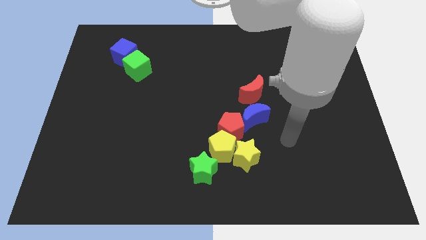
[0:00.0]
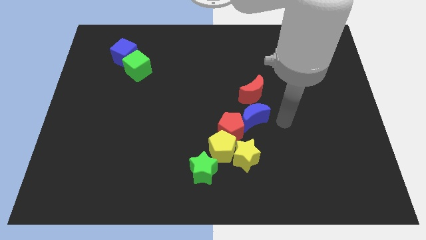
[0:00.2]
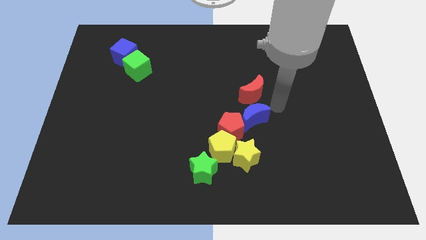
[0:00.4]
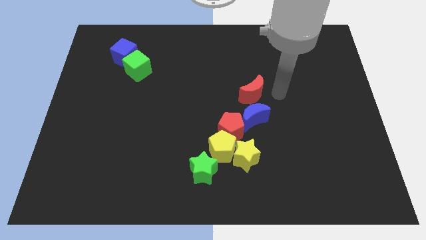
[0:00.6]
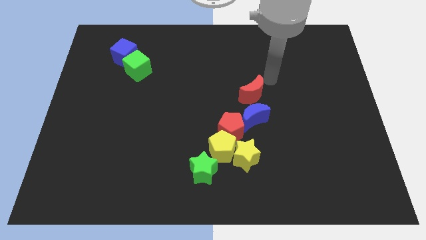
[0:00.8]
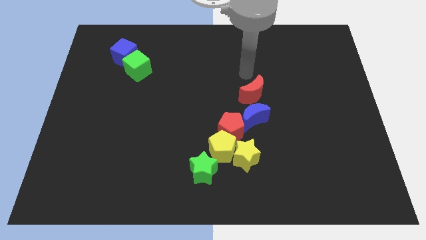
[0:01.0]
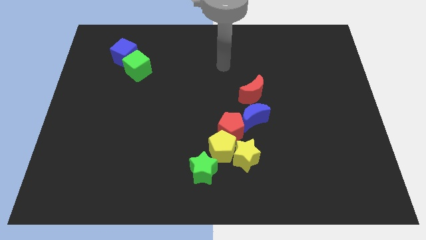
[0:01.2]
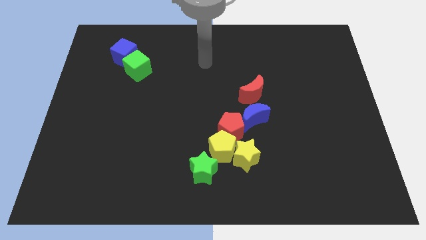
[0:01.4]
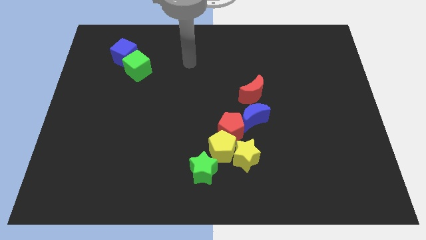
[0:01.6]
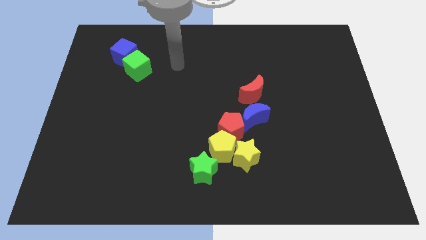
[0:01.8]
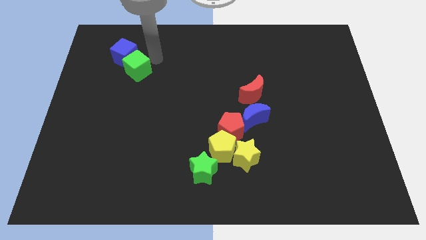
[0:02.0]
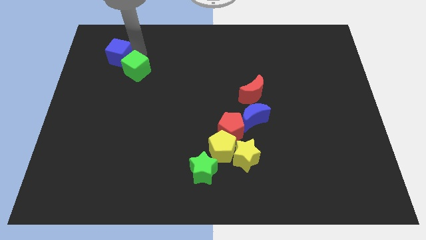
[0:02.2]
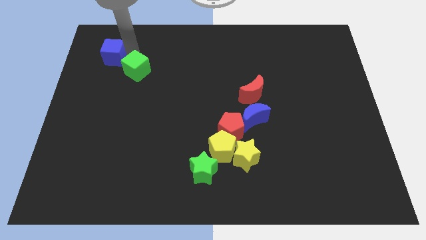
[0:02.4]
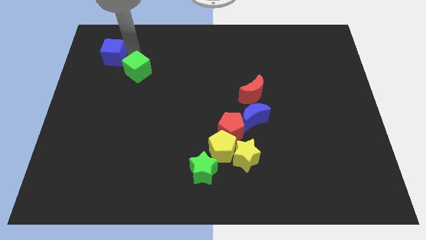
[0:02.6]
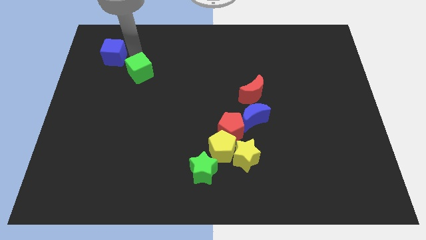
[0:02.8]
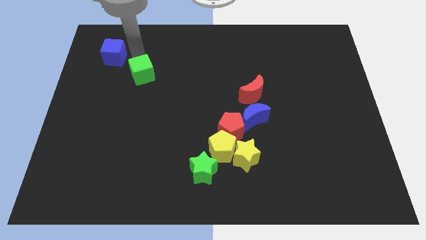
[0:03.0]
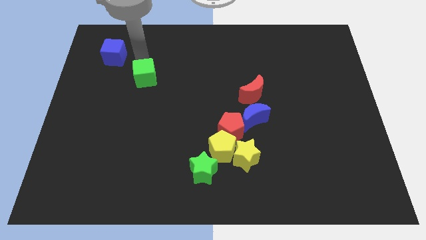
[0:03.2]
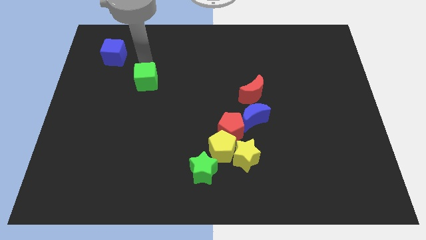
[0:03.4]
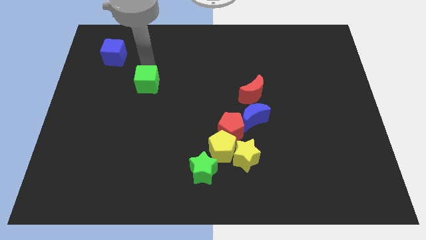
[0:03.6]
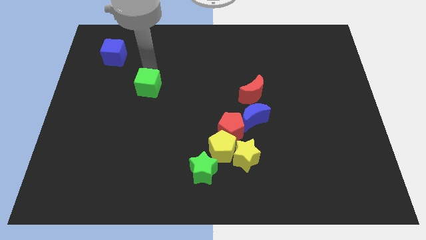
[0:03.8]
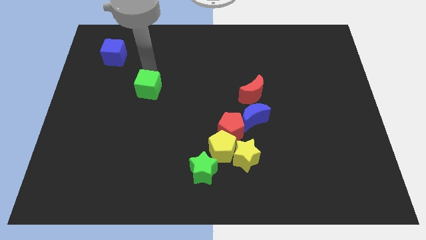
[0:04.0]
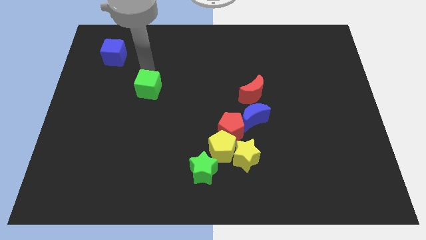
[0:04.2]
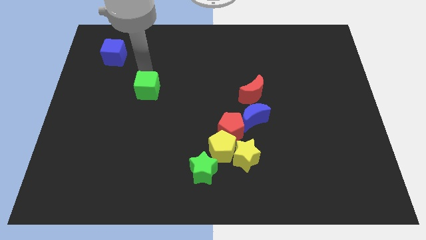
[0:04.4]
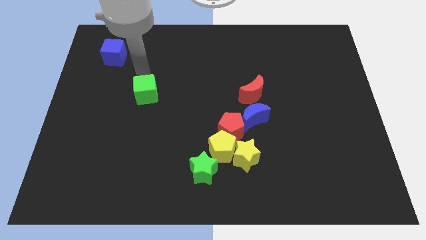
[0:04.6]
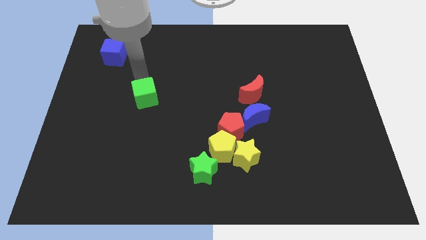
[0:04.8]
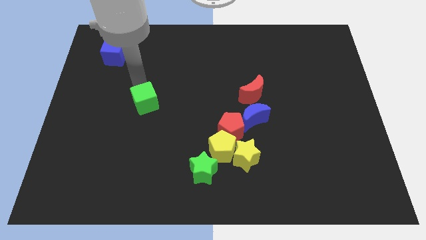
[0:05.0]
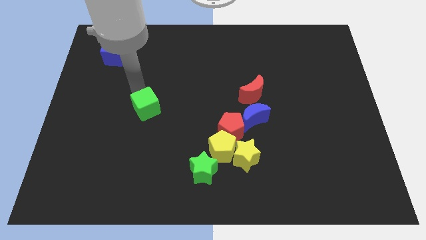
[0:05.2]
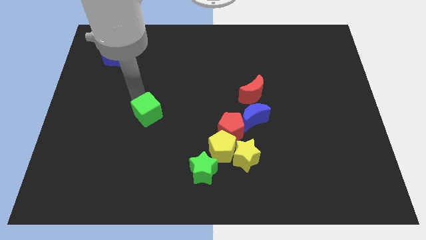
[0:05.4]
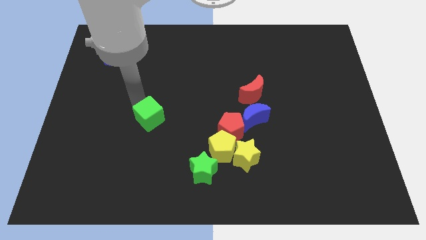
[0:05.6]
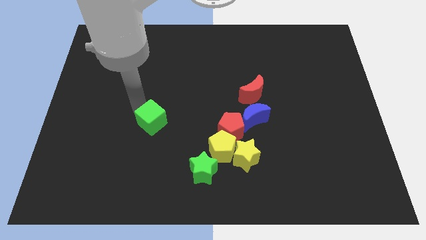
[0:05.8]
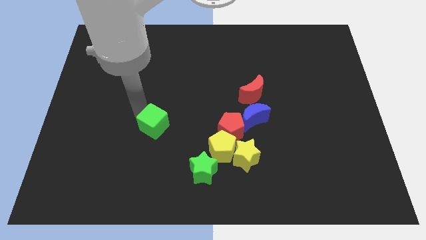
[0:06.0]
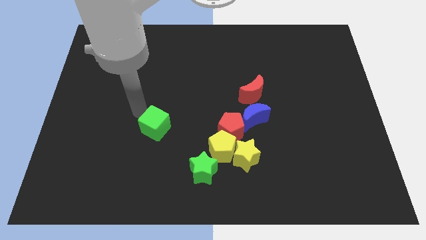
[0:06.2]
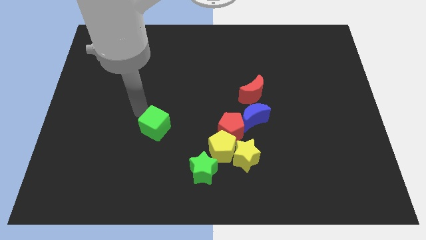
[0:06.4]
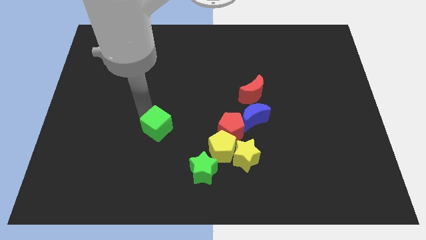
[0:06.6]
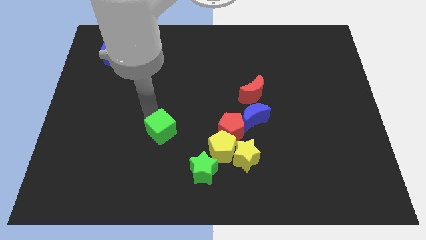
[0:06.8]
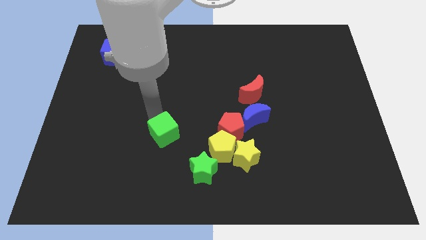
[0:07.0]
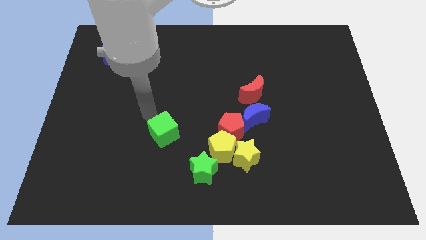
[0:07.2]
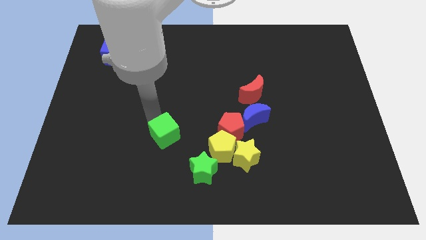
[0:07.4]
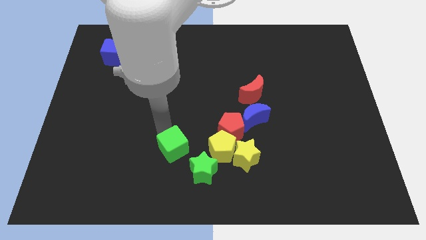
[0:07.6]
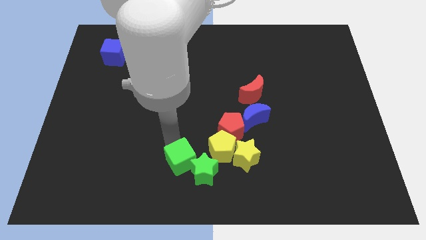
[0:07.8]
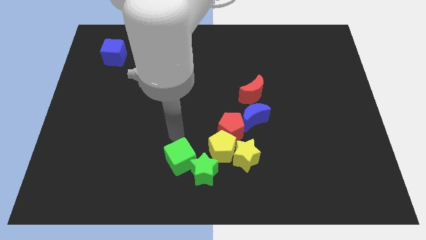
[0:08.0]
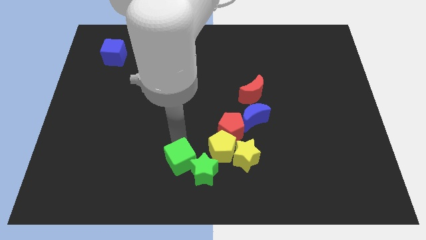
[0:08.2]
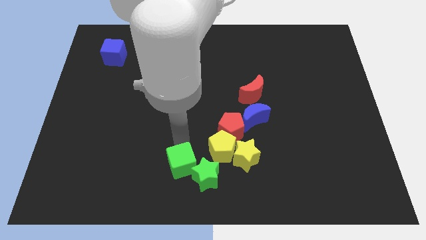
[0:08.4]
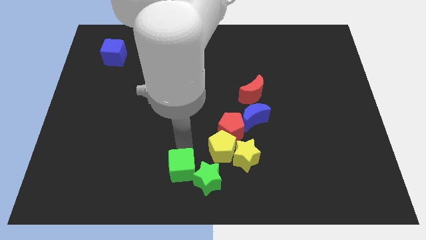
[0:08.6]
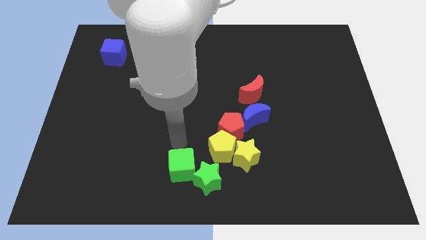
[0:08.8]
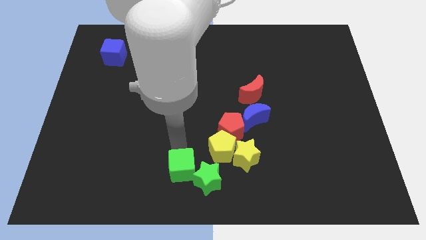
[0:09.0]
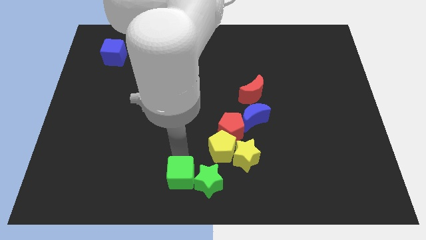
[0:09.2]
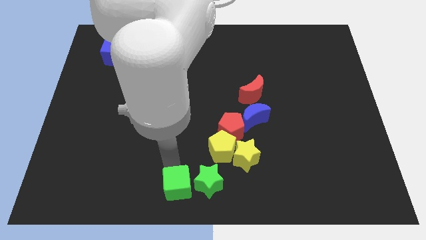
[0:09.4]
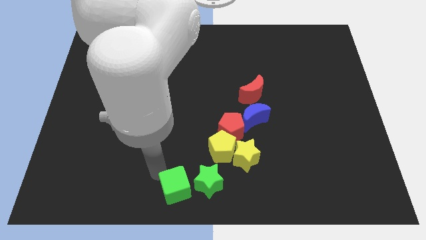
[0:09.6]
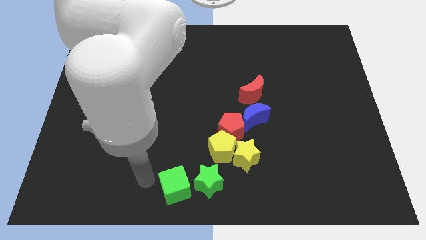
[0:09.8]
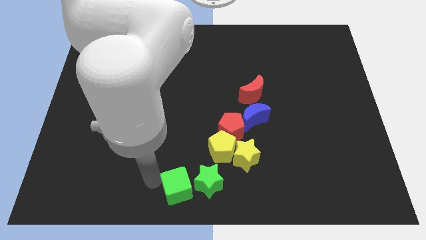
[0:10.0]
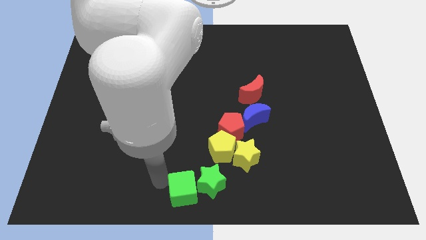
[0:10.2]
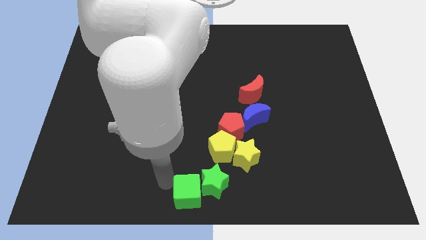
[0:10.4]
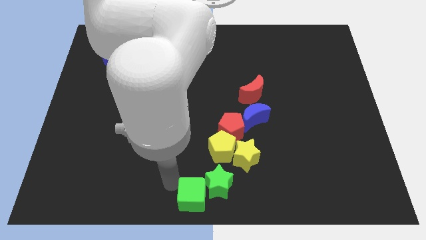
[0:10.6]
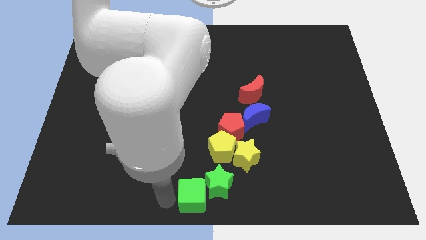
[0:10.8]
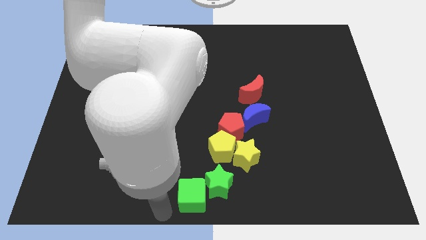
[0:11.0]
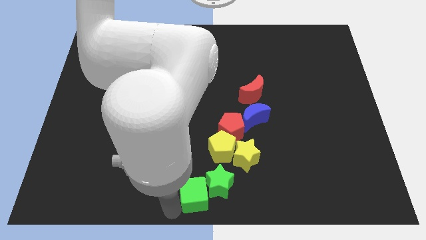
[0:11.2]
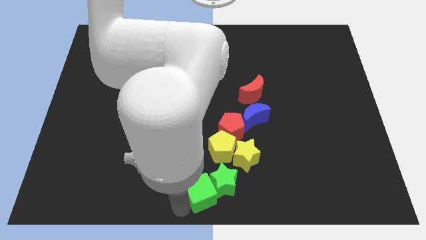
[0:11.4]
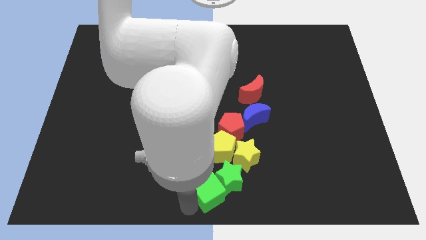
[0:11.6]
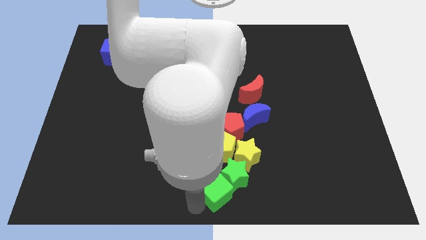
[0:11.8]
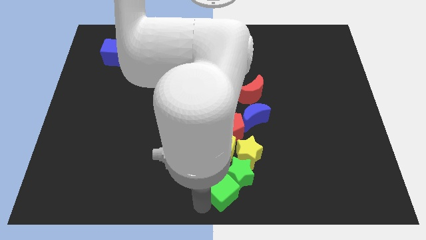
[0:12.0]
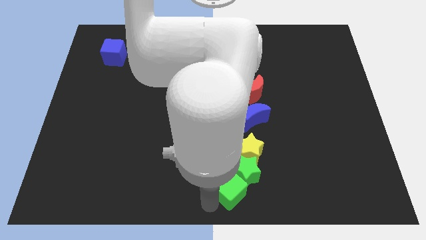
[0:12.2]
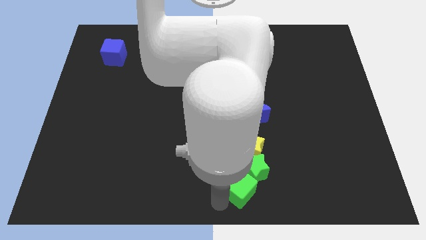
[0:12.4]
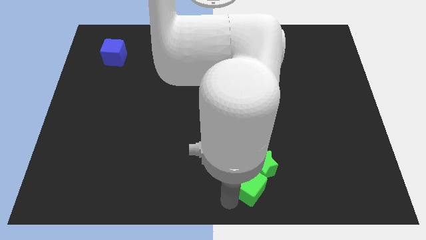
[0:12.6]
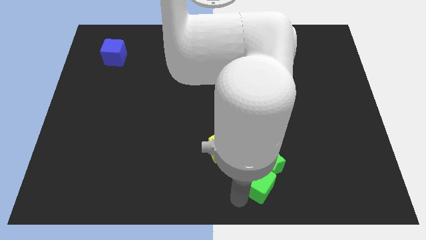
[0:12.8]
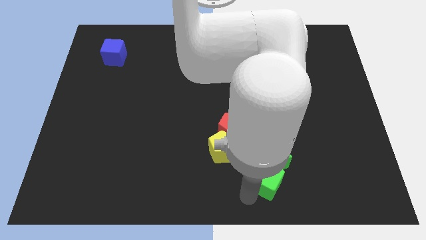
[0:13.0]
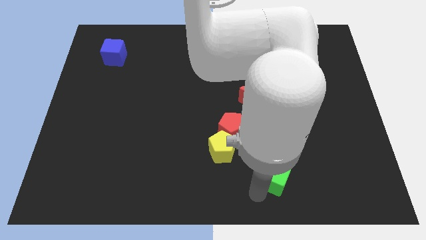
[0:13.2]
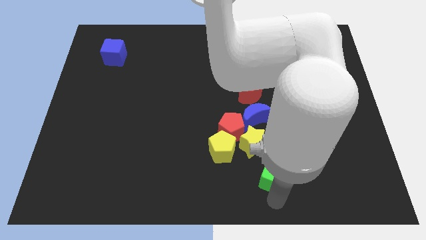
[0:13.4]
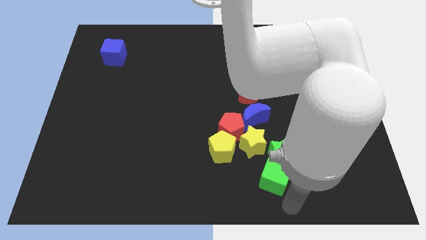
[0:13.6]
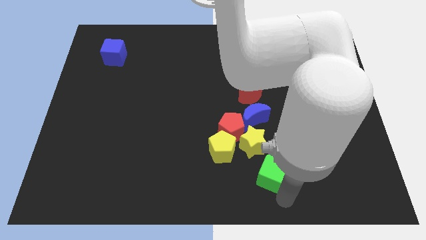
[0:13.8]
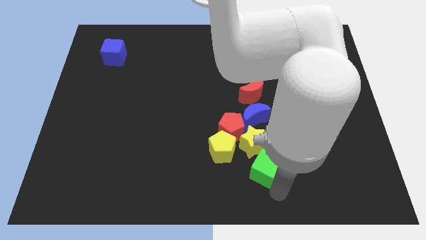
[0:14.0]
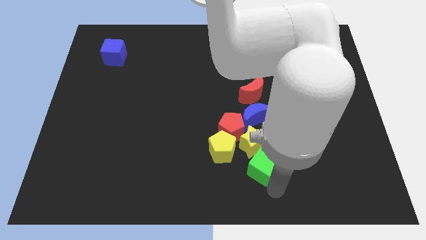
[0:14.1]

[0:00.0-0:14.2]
push the green cube close to the yellow star
